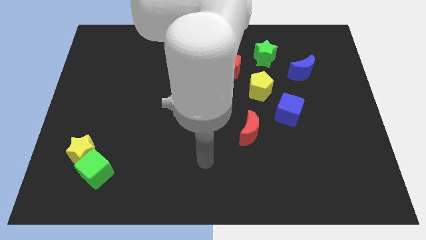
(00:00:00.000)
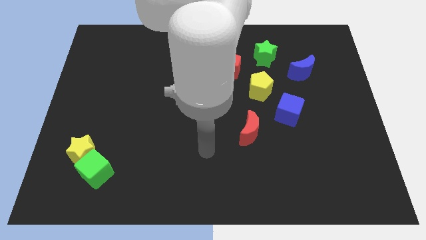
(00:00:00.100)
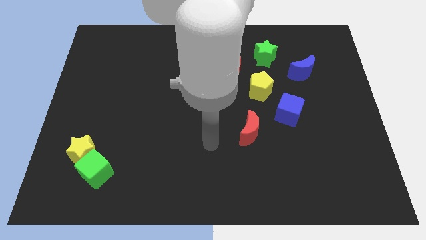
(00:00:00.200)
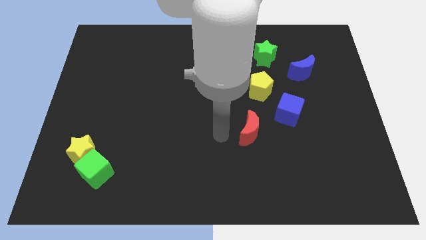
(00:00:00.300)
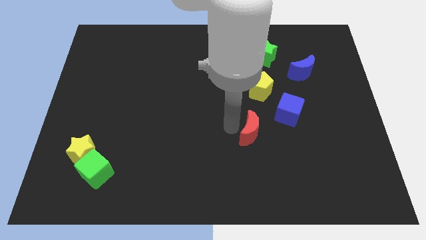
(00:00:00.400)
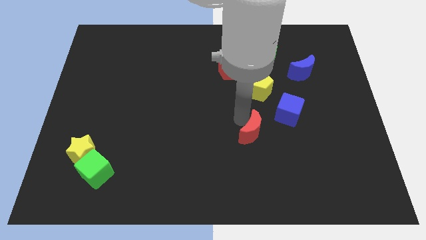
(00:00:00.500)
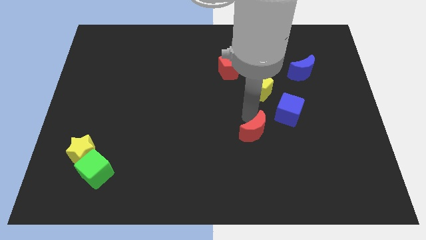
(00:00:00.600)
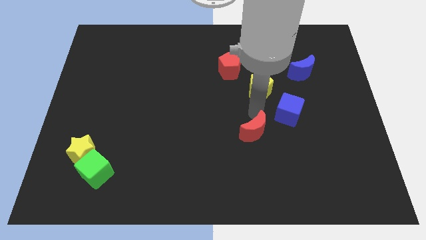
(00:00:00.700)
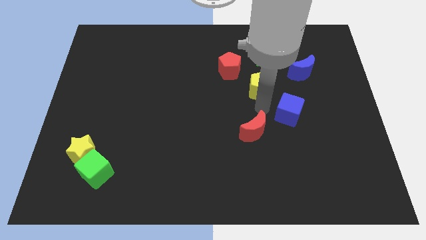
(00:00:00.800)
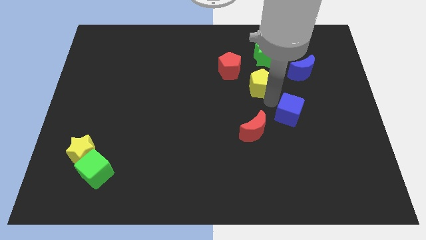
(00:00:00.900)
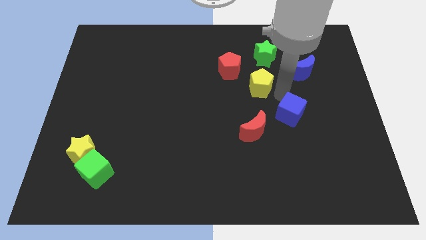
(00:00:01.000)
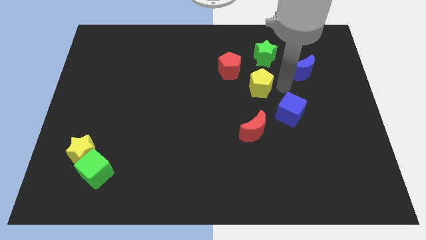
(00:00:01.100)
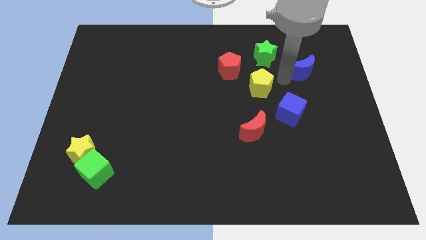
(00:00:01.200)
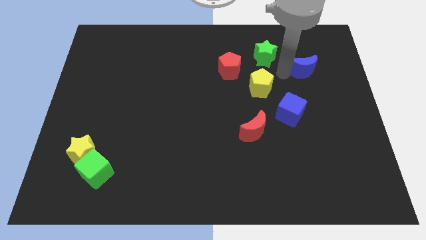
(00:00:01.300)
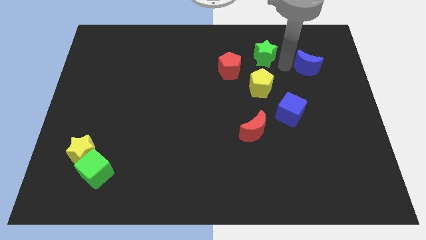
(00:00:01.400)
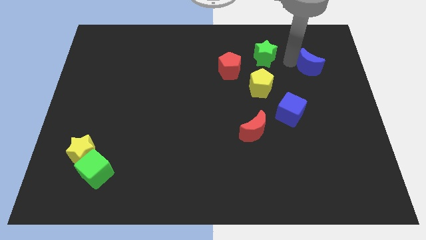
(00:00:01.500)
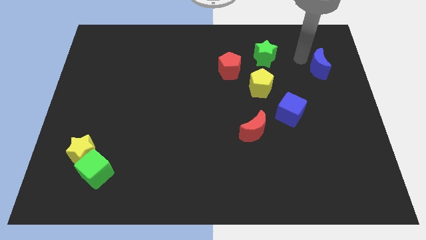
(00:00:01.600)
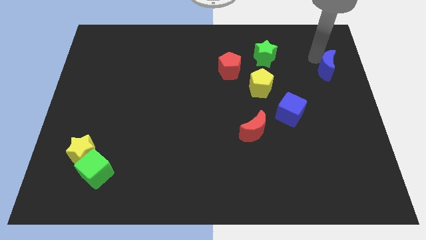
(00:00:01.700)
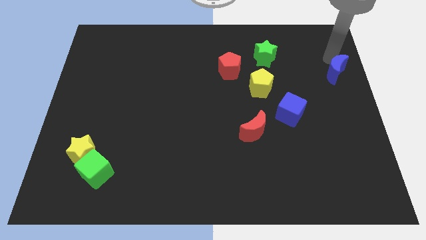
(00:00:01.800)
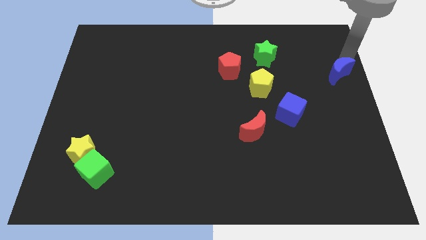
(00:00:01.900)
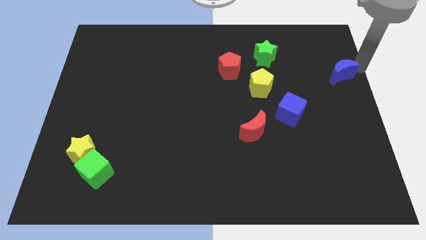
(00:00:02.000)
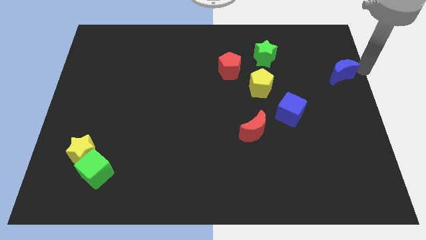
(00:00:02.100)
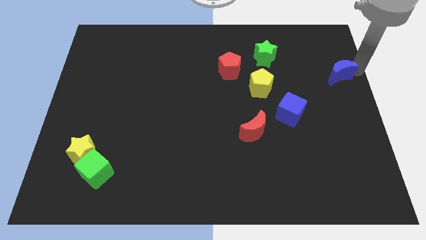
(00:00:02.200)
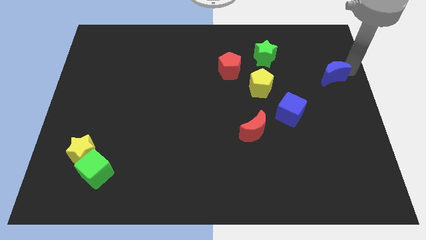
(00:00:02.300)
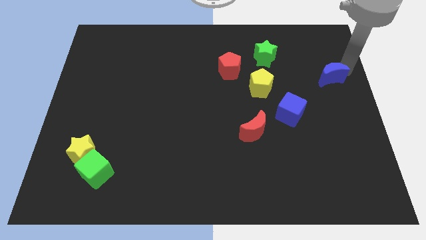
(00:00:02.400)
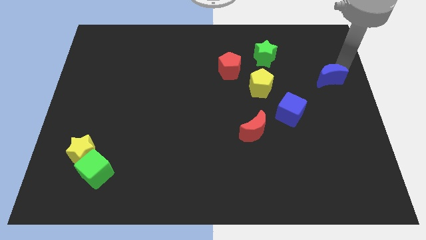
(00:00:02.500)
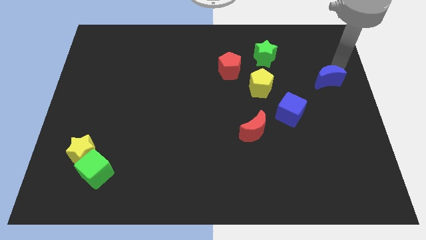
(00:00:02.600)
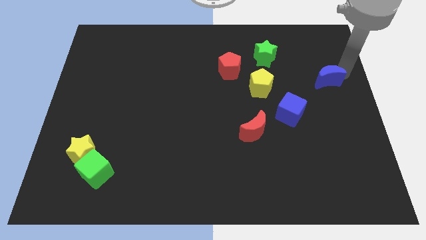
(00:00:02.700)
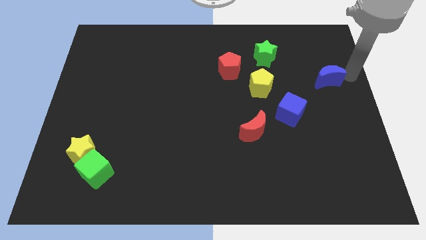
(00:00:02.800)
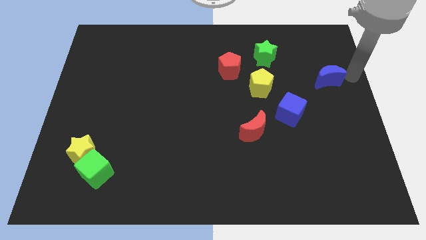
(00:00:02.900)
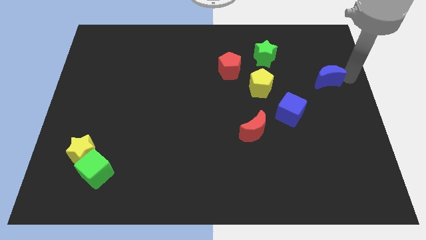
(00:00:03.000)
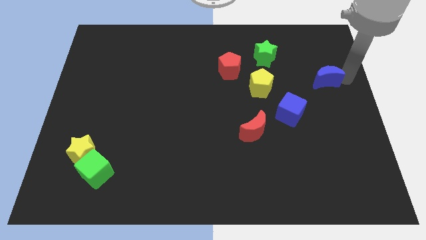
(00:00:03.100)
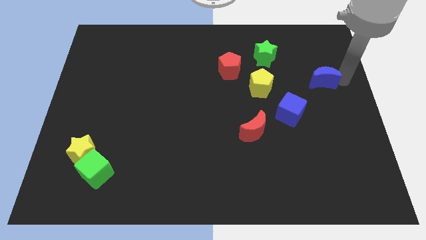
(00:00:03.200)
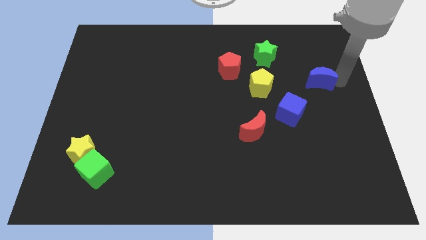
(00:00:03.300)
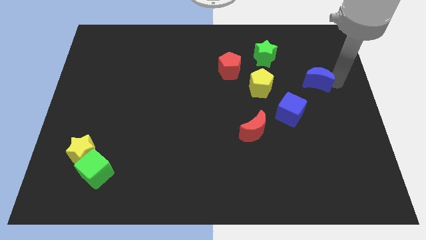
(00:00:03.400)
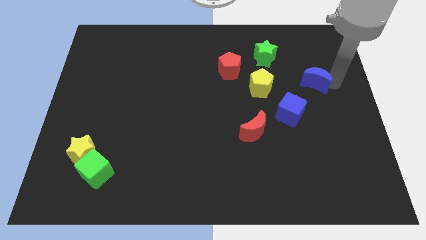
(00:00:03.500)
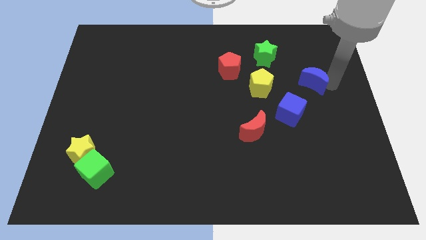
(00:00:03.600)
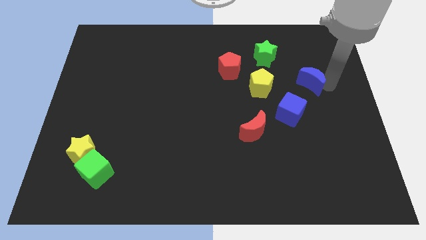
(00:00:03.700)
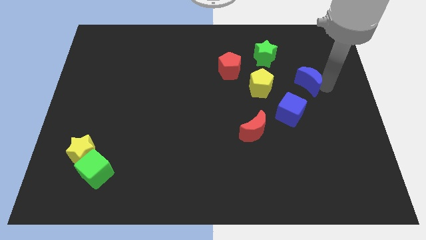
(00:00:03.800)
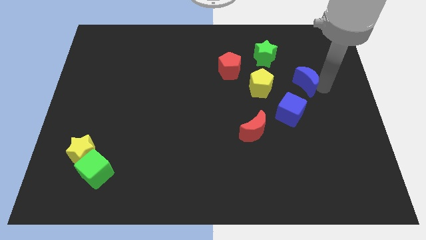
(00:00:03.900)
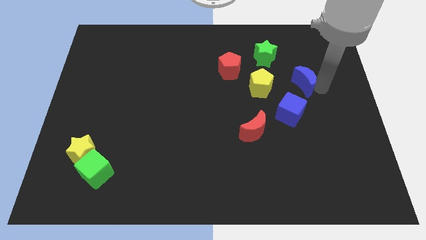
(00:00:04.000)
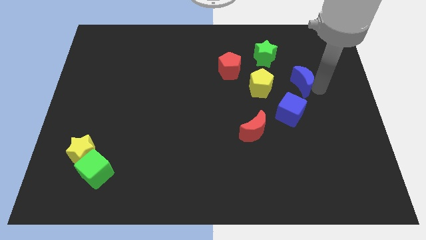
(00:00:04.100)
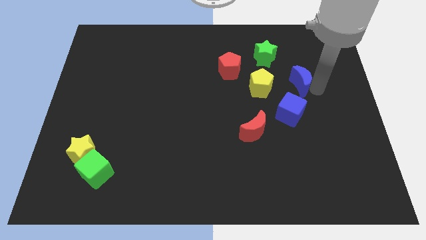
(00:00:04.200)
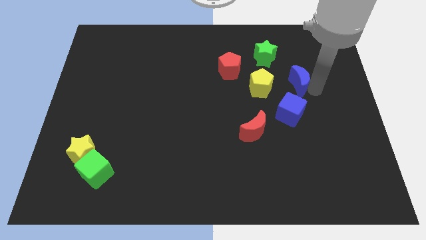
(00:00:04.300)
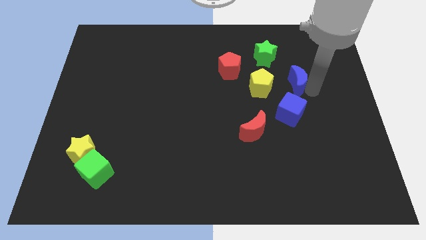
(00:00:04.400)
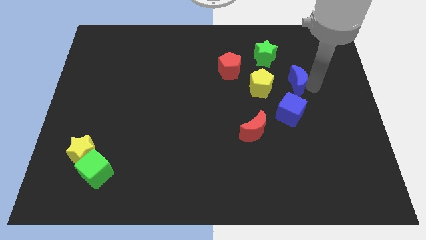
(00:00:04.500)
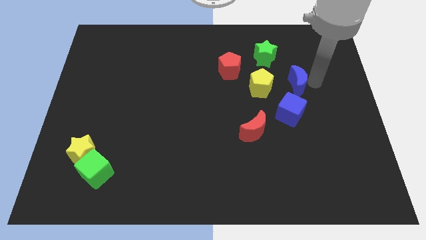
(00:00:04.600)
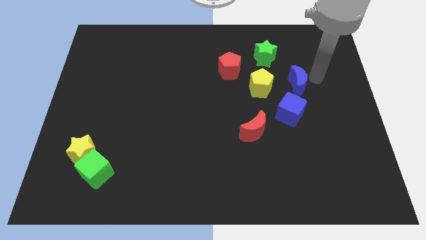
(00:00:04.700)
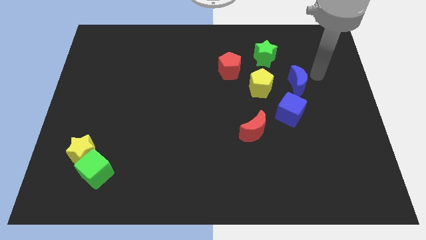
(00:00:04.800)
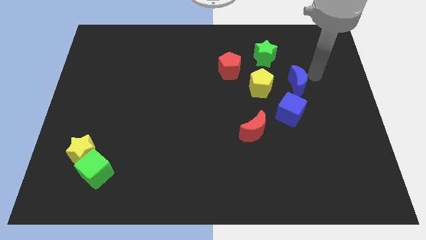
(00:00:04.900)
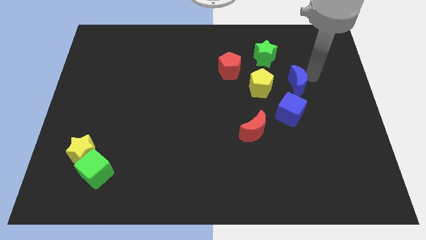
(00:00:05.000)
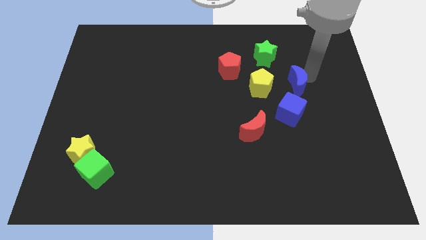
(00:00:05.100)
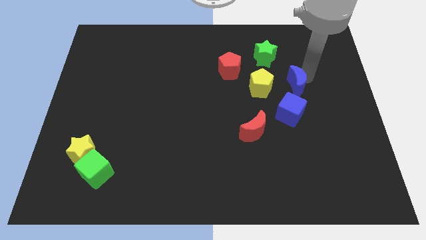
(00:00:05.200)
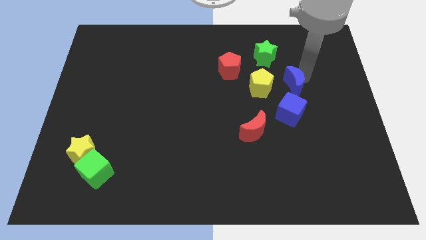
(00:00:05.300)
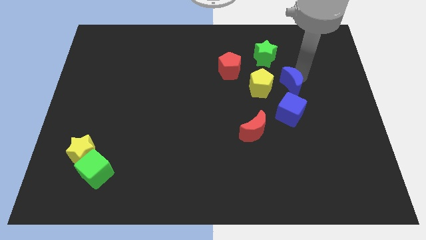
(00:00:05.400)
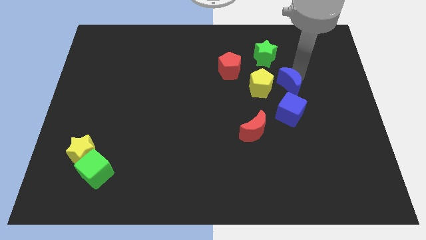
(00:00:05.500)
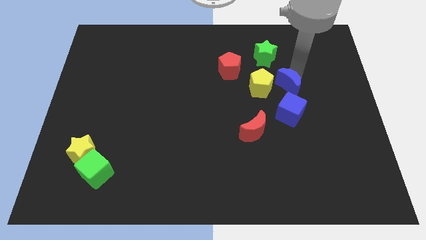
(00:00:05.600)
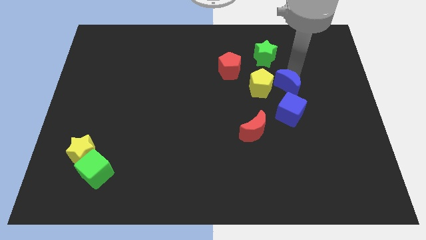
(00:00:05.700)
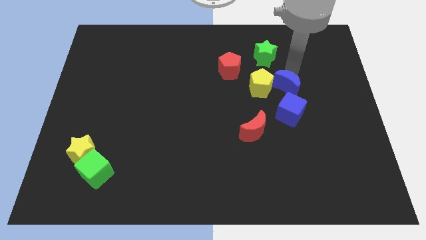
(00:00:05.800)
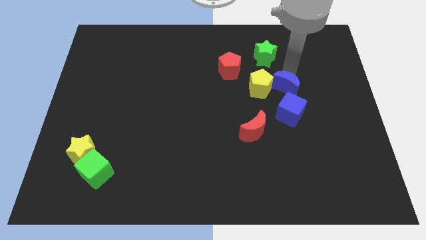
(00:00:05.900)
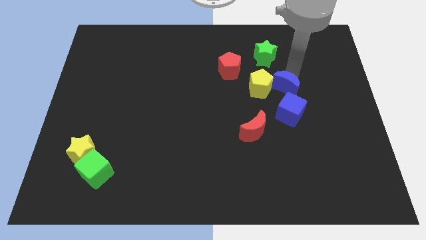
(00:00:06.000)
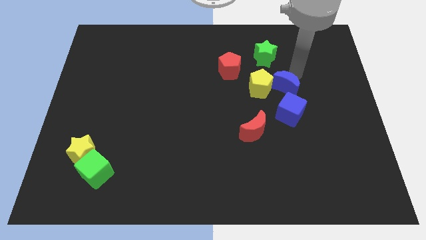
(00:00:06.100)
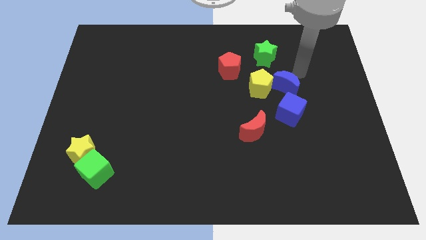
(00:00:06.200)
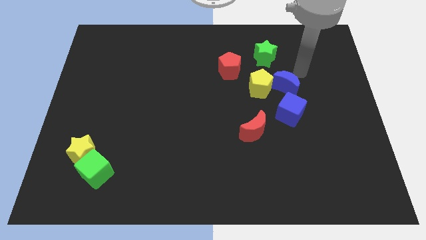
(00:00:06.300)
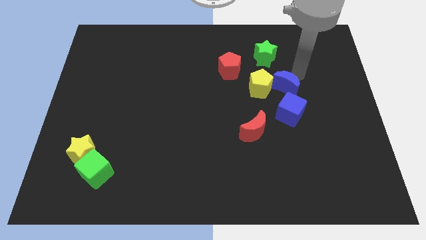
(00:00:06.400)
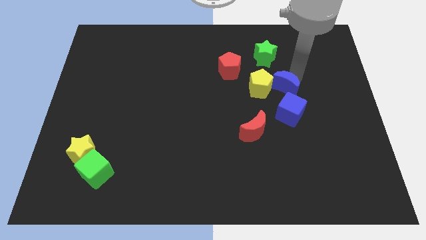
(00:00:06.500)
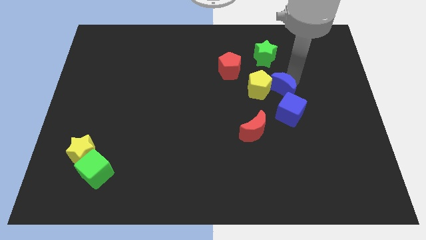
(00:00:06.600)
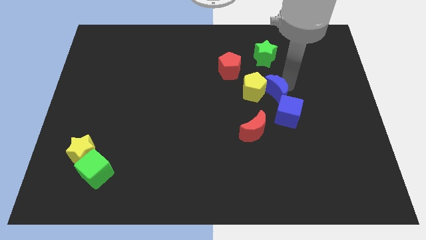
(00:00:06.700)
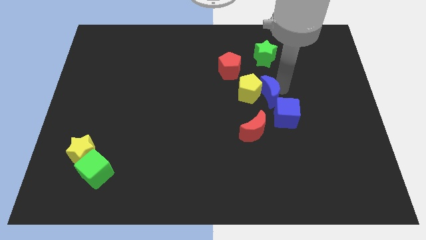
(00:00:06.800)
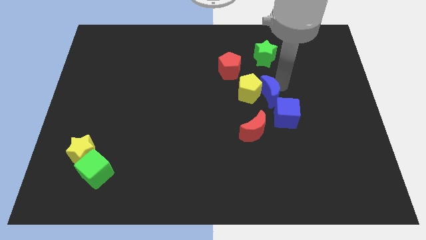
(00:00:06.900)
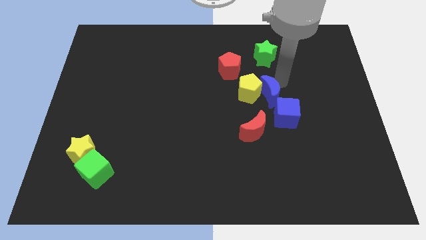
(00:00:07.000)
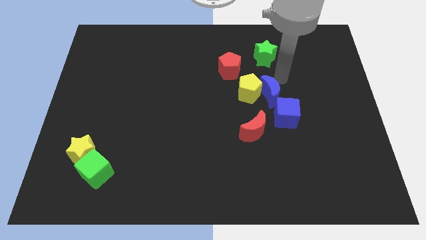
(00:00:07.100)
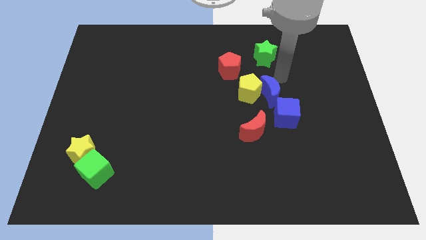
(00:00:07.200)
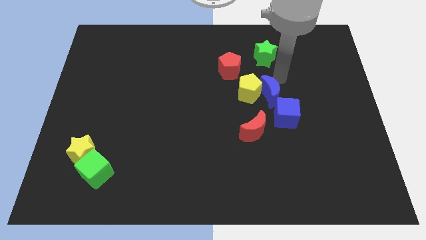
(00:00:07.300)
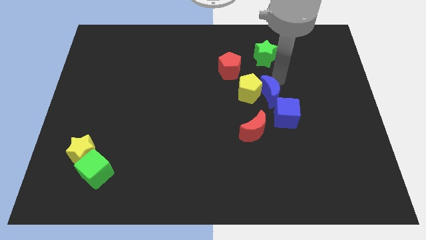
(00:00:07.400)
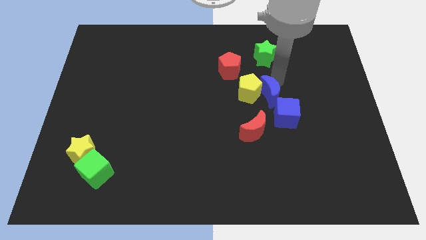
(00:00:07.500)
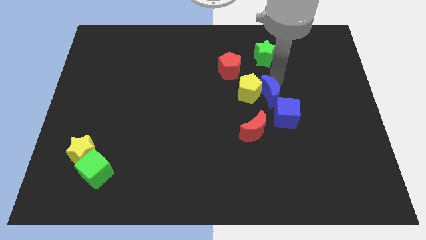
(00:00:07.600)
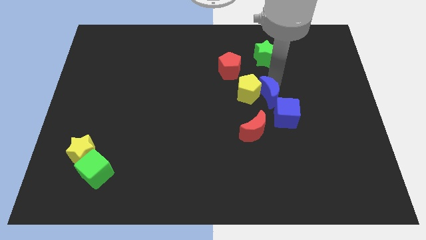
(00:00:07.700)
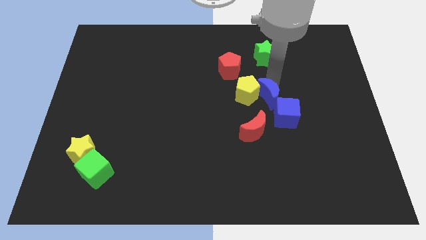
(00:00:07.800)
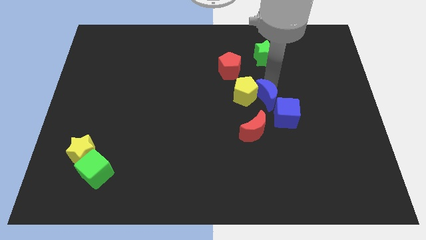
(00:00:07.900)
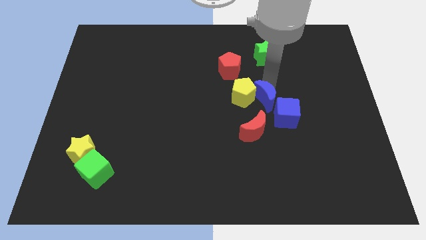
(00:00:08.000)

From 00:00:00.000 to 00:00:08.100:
move the blue moon to the center
